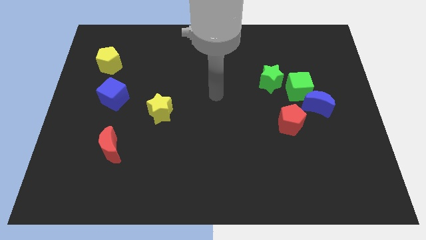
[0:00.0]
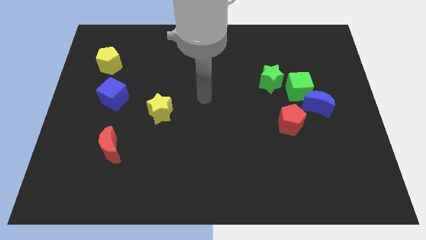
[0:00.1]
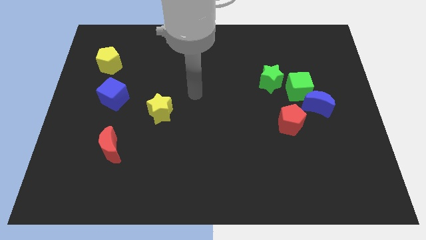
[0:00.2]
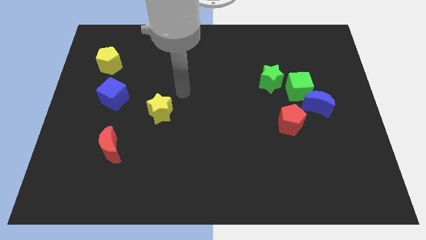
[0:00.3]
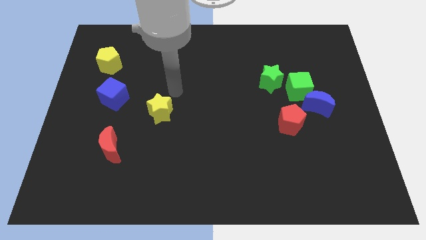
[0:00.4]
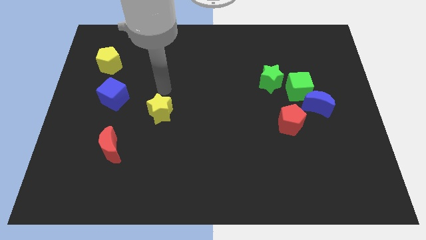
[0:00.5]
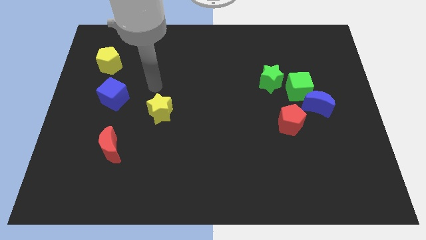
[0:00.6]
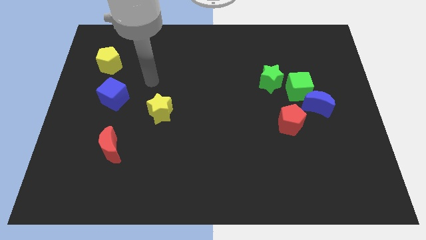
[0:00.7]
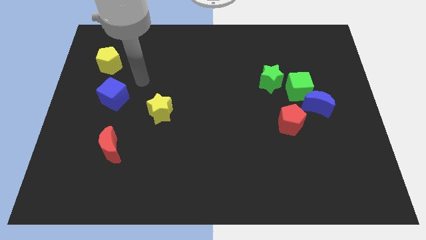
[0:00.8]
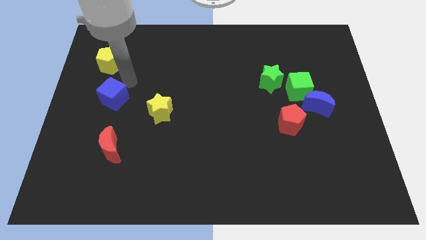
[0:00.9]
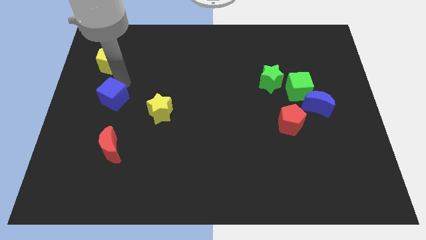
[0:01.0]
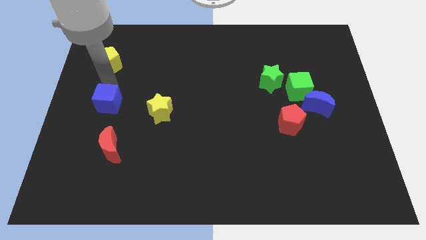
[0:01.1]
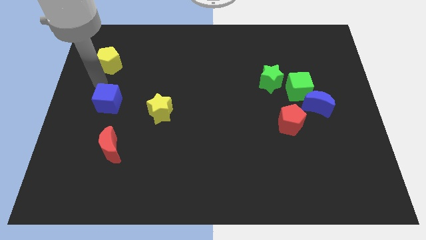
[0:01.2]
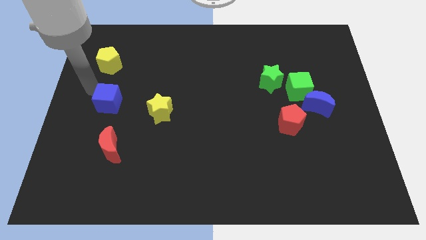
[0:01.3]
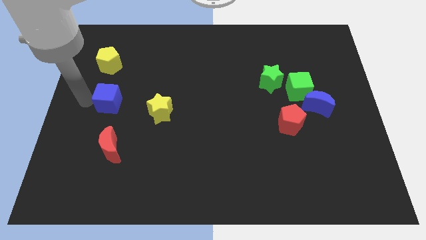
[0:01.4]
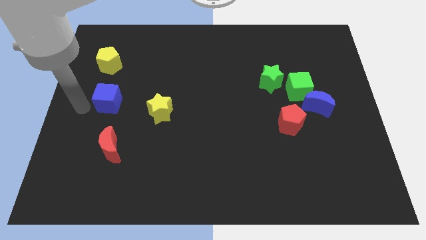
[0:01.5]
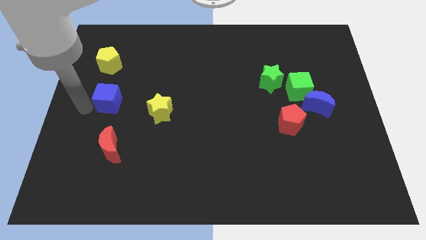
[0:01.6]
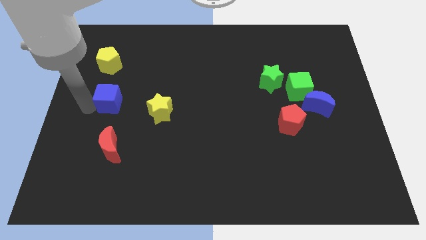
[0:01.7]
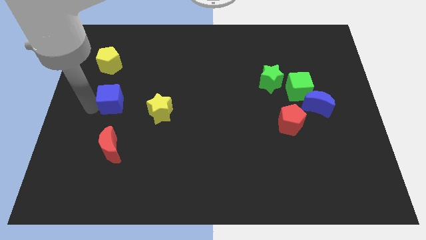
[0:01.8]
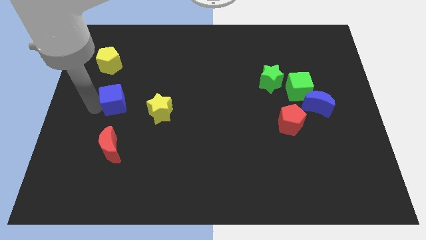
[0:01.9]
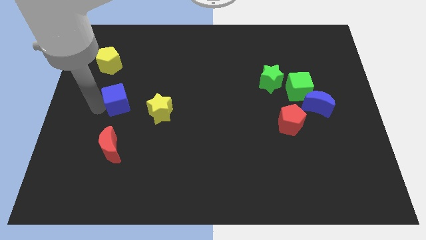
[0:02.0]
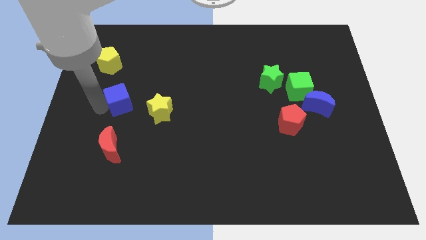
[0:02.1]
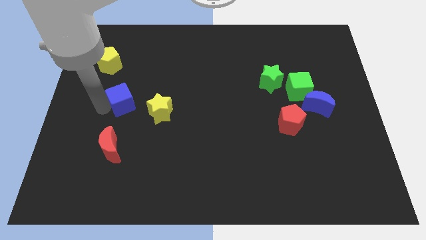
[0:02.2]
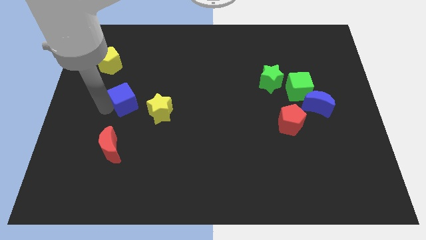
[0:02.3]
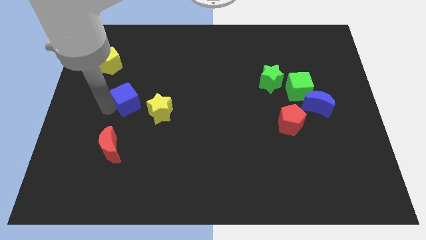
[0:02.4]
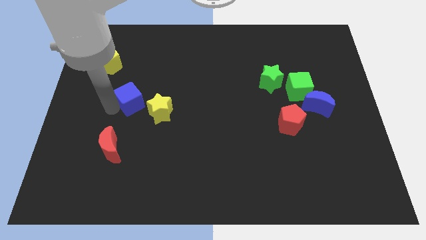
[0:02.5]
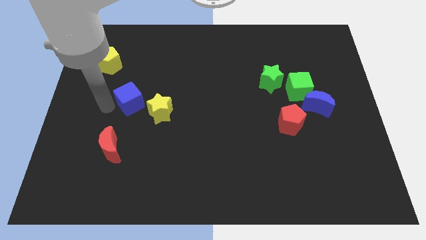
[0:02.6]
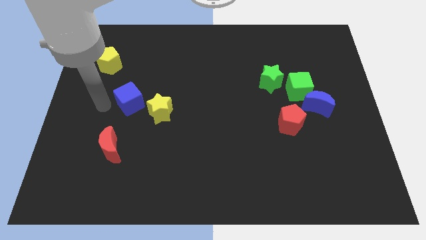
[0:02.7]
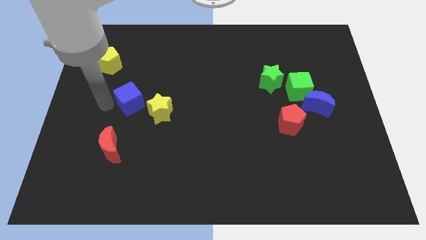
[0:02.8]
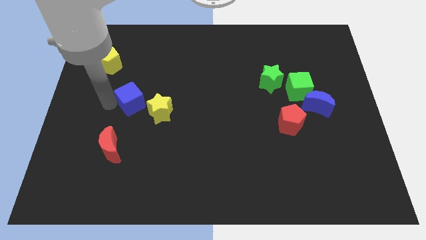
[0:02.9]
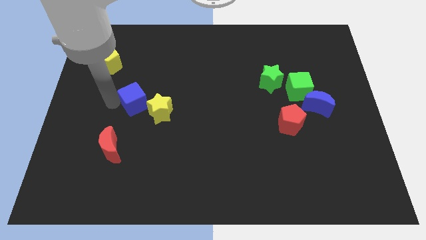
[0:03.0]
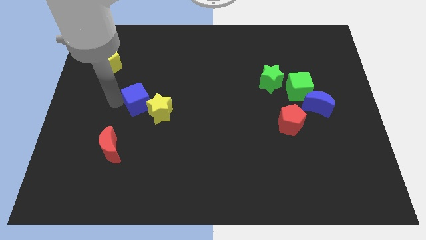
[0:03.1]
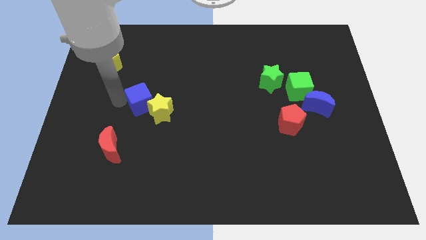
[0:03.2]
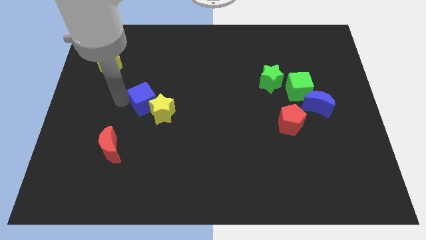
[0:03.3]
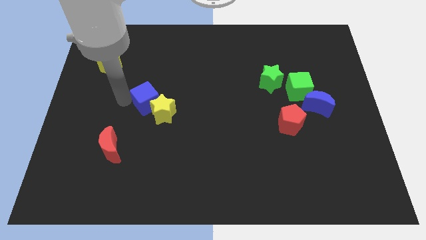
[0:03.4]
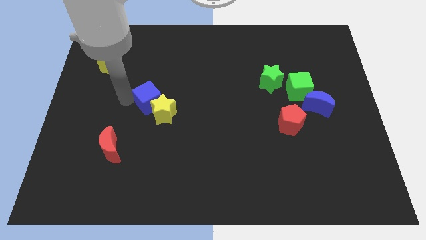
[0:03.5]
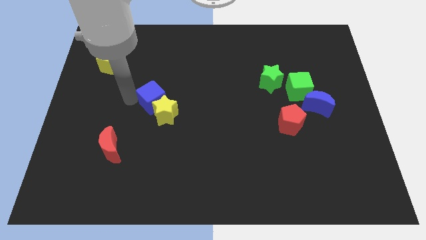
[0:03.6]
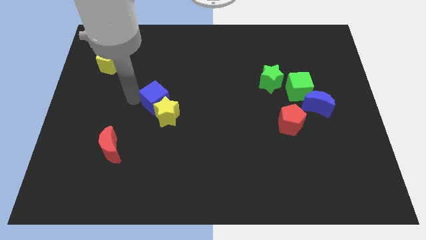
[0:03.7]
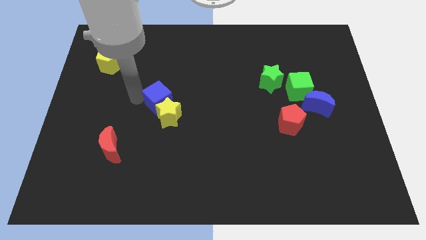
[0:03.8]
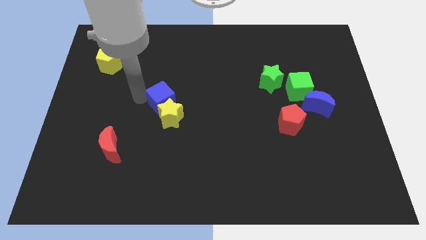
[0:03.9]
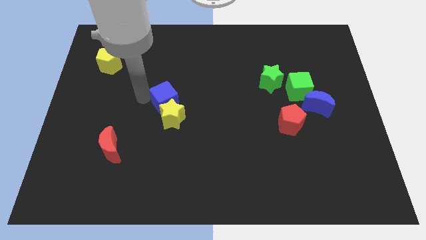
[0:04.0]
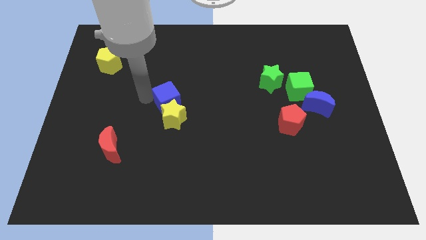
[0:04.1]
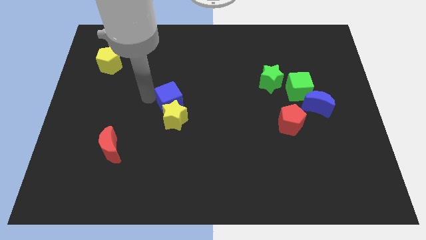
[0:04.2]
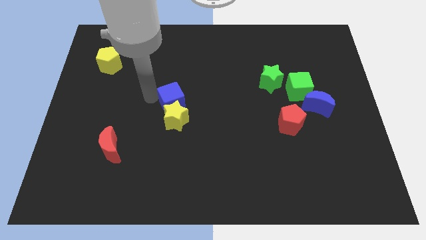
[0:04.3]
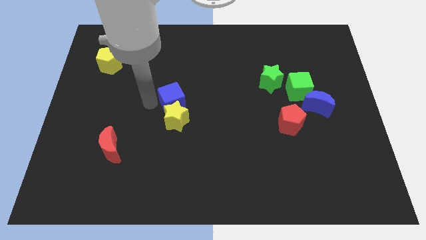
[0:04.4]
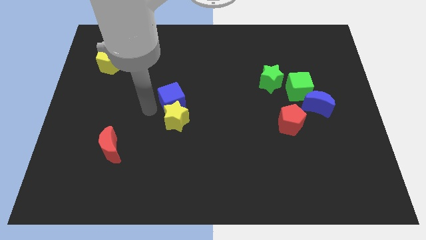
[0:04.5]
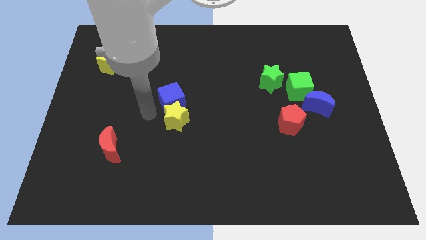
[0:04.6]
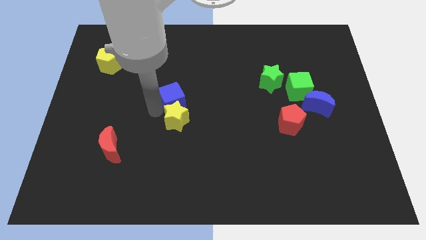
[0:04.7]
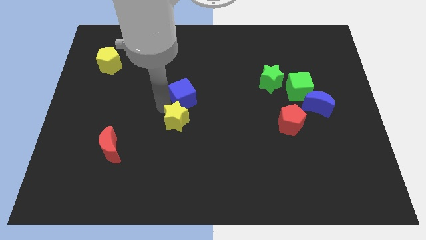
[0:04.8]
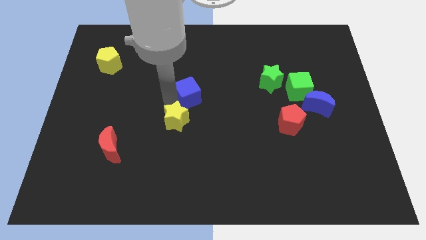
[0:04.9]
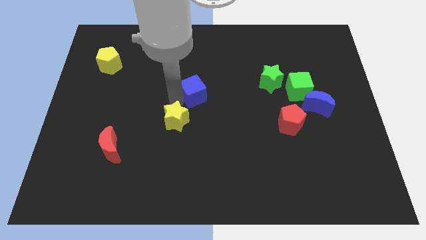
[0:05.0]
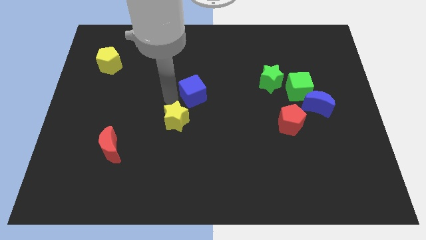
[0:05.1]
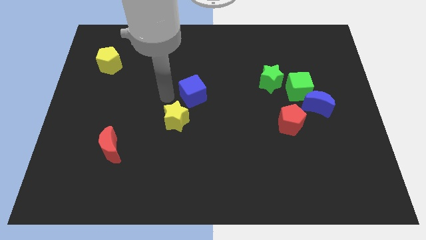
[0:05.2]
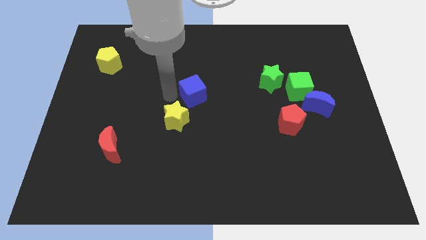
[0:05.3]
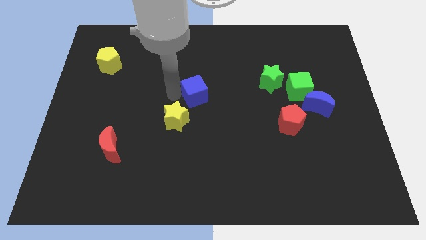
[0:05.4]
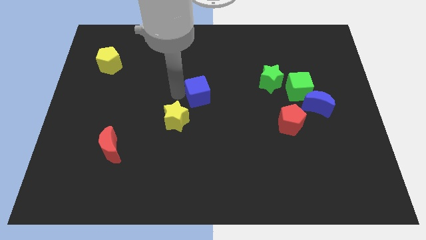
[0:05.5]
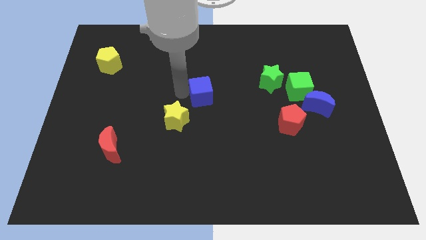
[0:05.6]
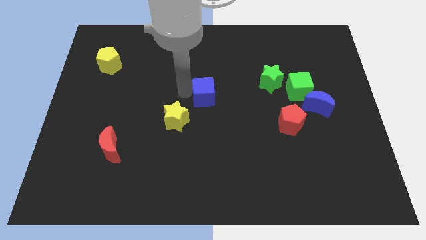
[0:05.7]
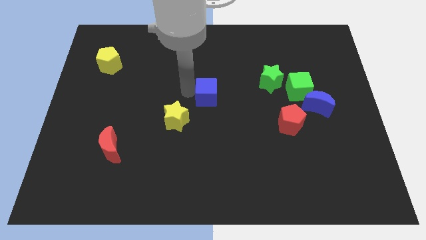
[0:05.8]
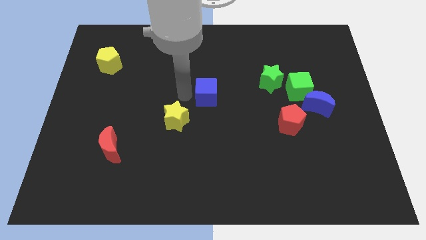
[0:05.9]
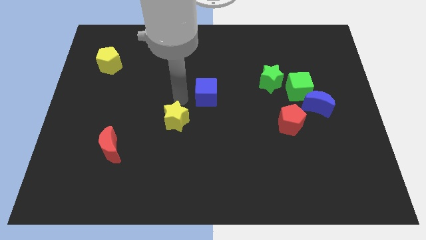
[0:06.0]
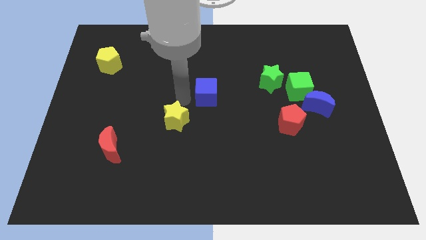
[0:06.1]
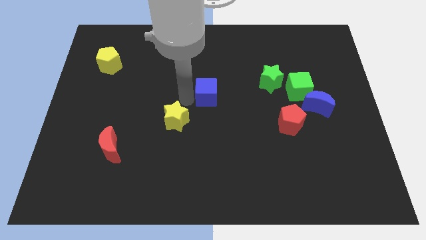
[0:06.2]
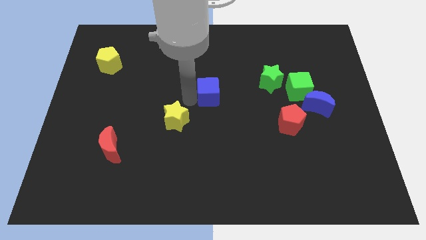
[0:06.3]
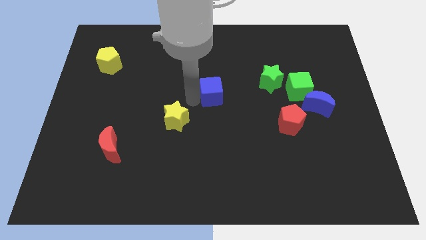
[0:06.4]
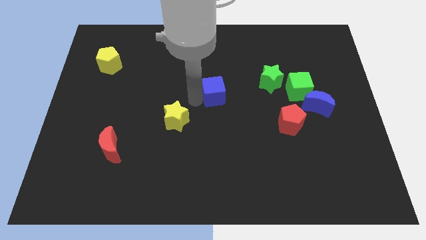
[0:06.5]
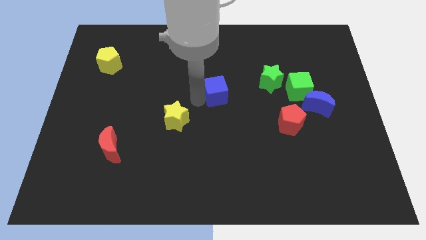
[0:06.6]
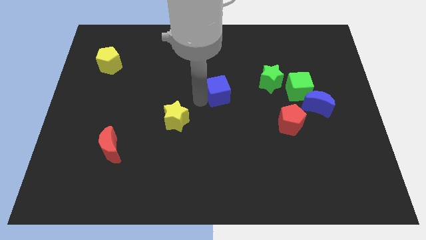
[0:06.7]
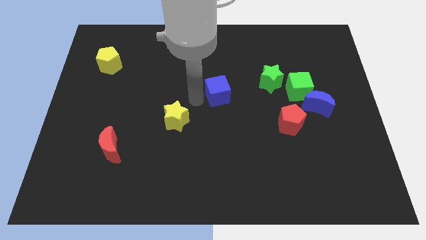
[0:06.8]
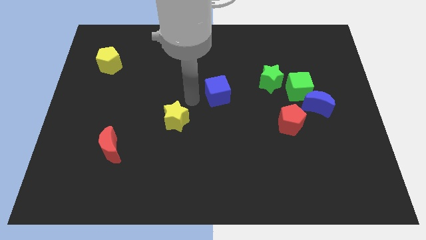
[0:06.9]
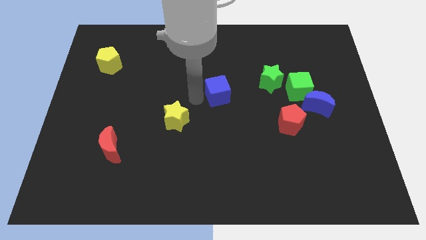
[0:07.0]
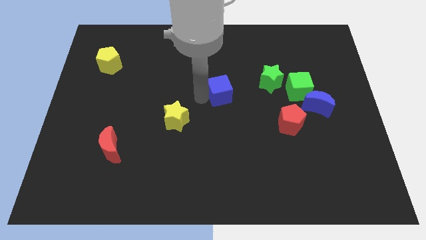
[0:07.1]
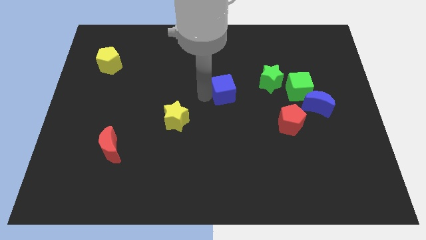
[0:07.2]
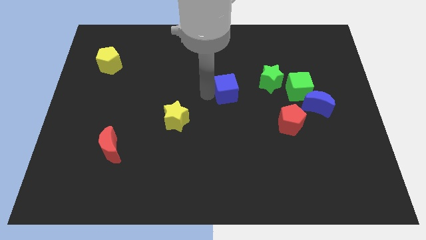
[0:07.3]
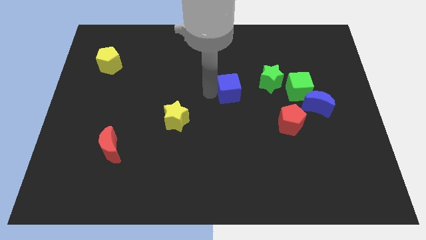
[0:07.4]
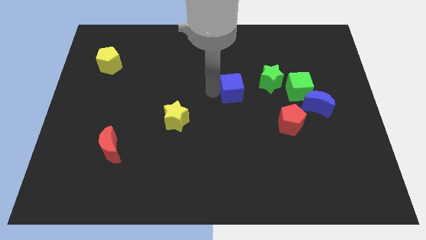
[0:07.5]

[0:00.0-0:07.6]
push the blue cube to the bottom left of the green star
